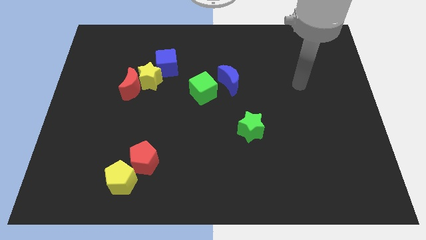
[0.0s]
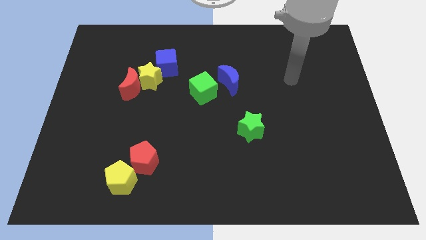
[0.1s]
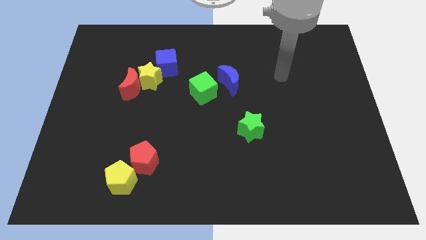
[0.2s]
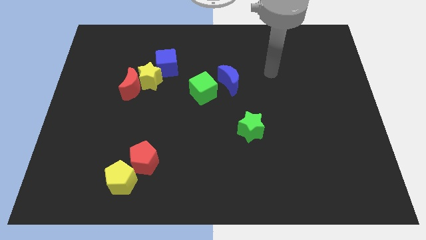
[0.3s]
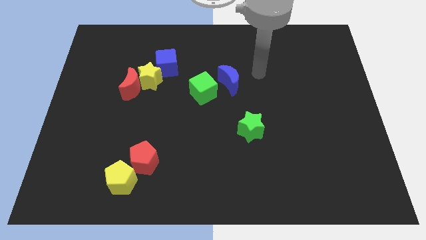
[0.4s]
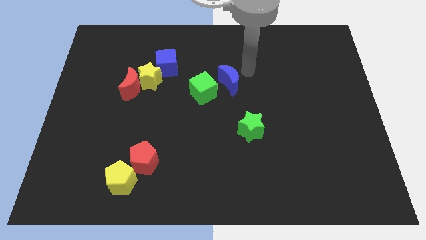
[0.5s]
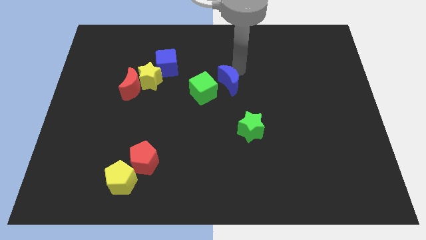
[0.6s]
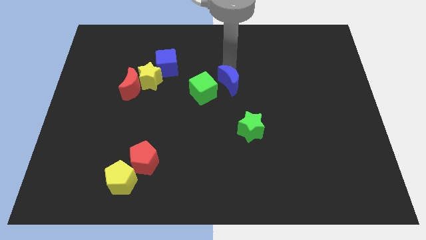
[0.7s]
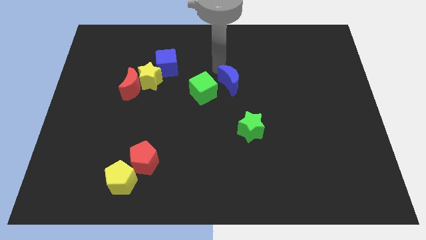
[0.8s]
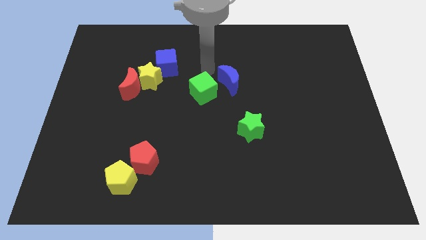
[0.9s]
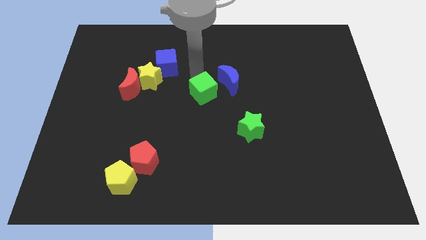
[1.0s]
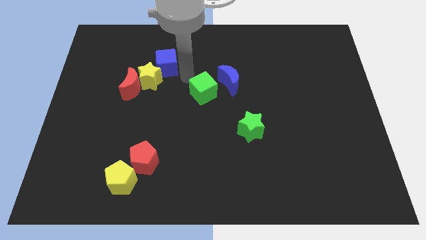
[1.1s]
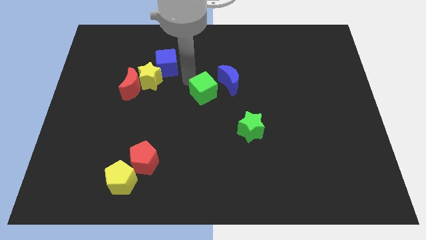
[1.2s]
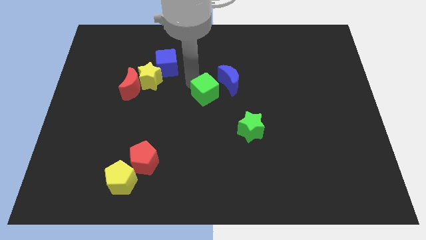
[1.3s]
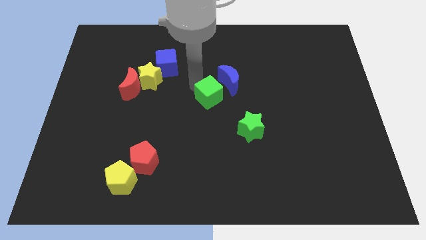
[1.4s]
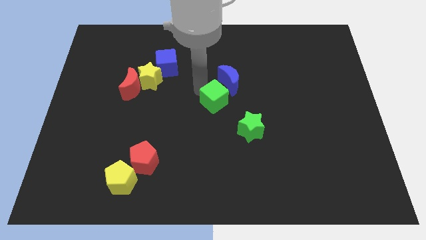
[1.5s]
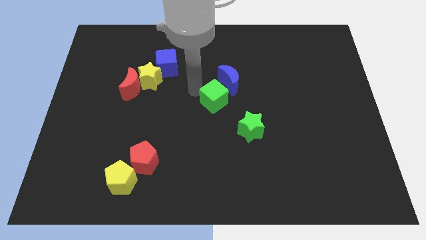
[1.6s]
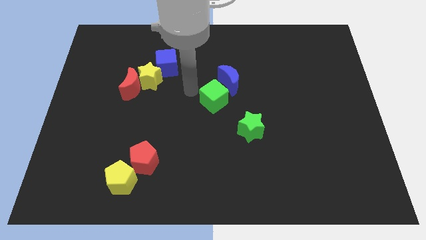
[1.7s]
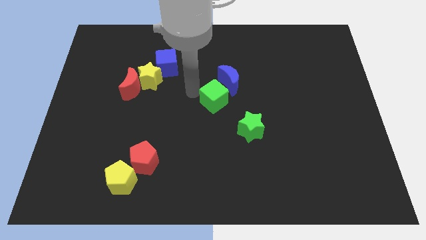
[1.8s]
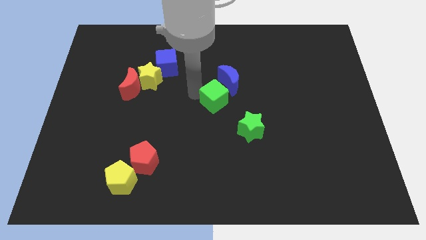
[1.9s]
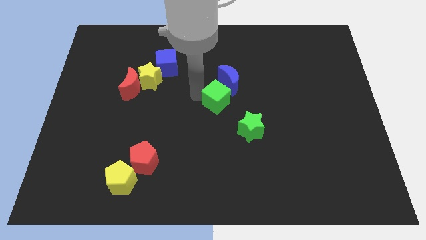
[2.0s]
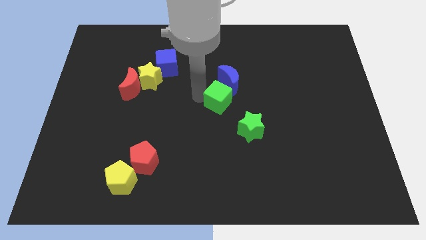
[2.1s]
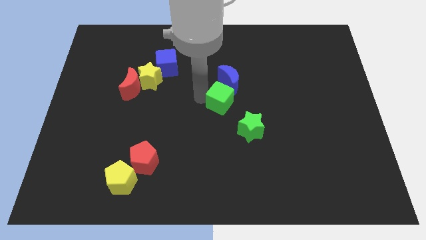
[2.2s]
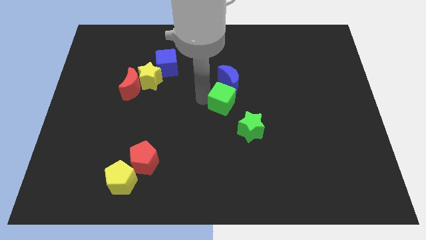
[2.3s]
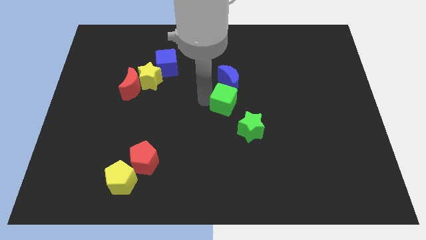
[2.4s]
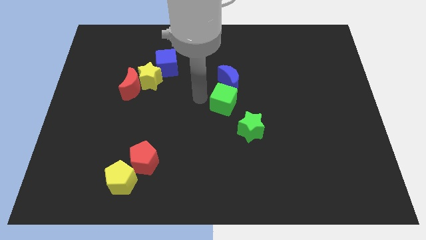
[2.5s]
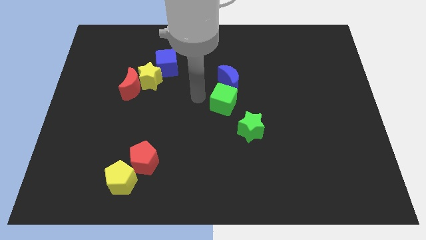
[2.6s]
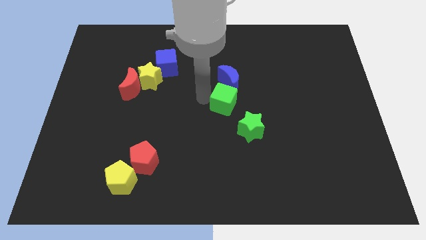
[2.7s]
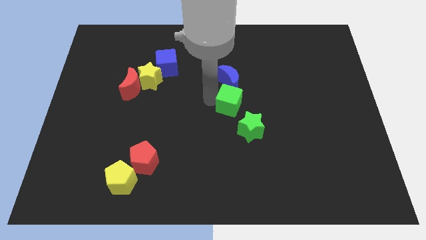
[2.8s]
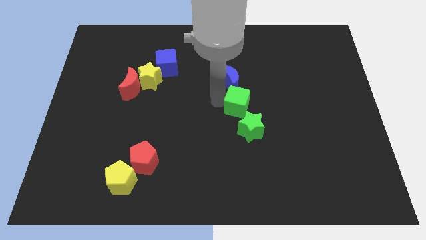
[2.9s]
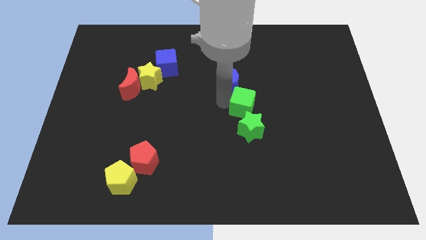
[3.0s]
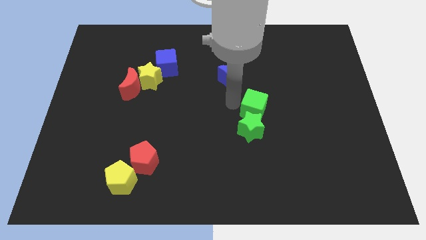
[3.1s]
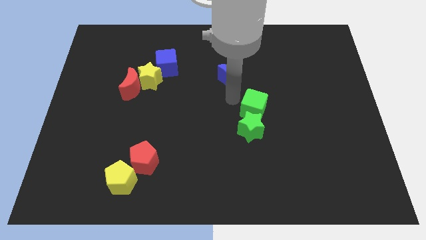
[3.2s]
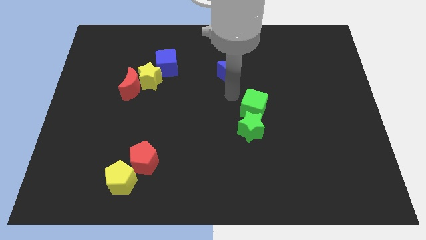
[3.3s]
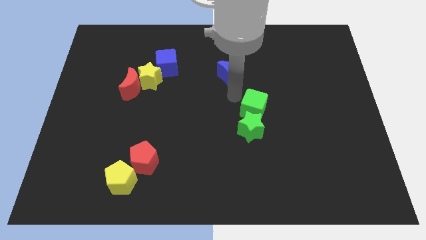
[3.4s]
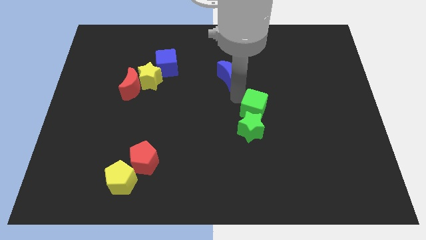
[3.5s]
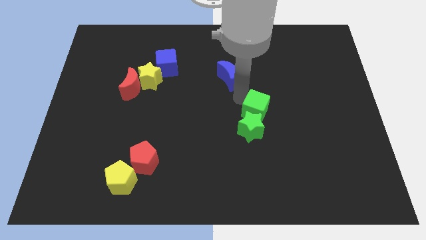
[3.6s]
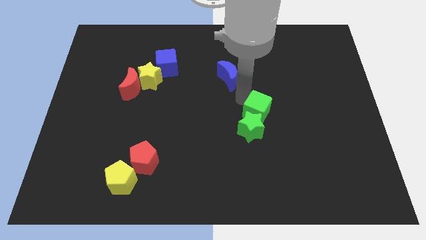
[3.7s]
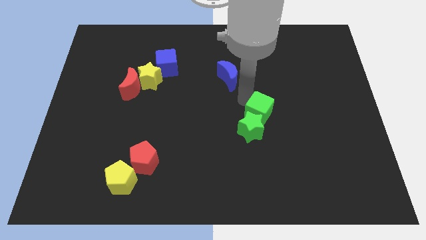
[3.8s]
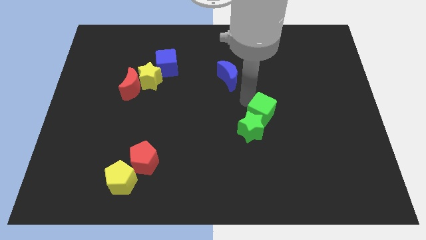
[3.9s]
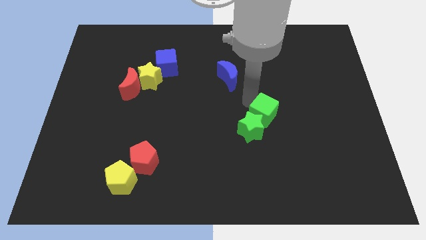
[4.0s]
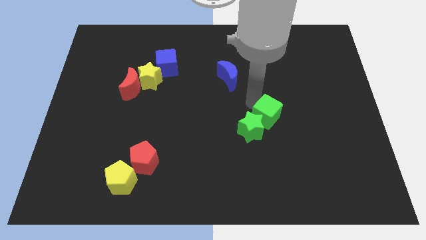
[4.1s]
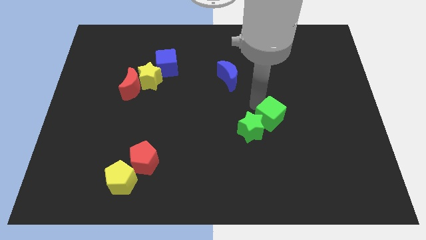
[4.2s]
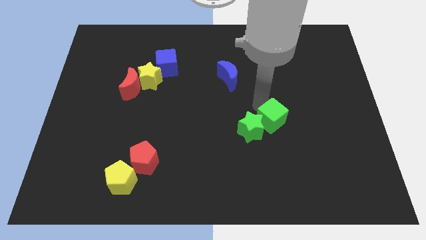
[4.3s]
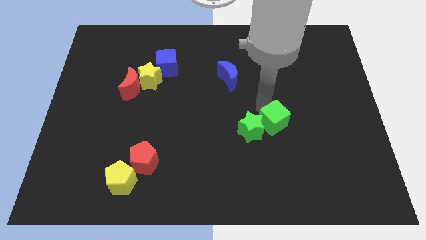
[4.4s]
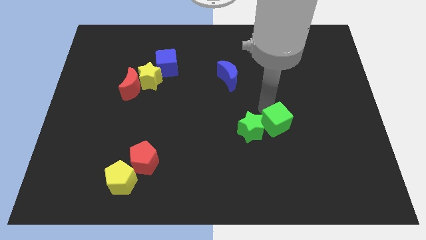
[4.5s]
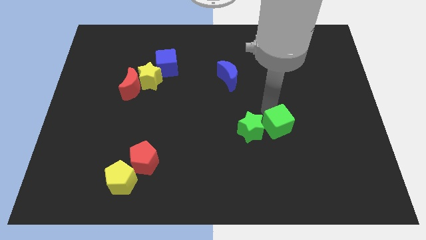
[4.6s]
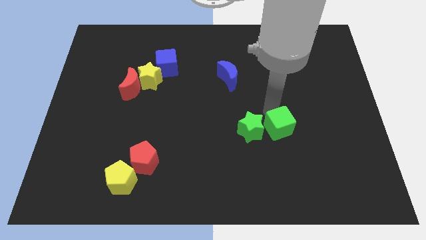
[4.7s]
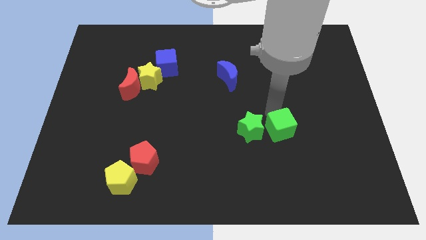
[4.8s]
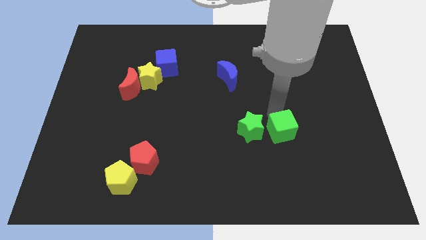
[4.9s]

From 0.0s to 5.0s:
move the green cube down and right diagonally

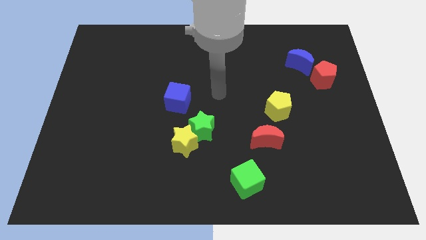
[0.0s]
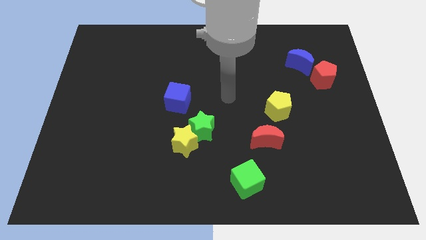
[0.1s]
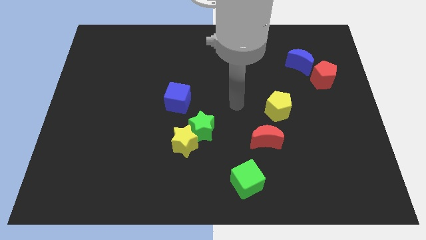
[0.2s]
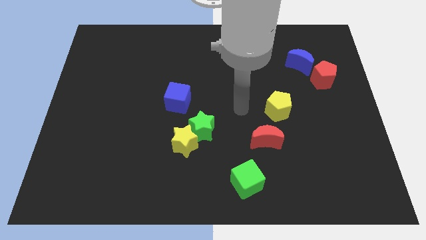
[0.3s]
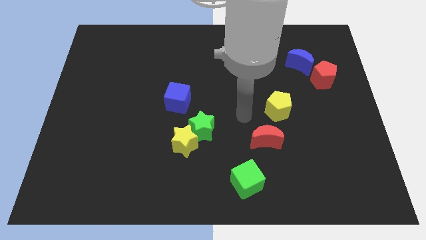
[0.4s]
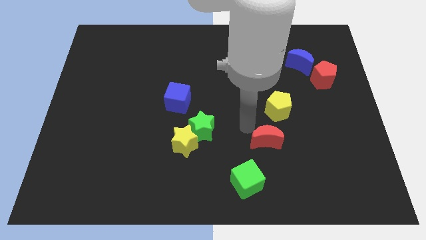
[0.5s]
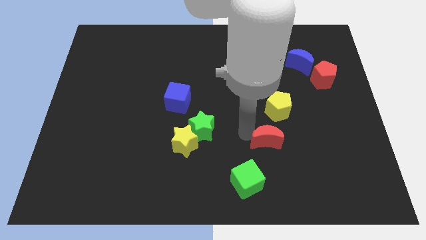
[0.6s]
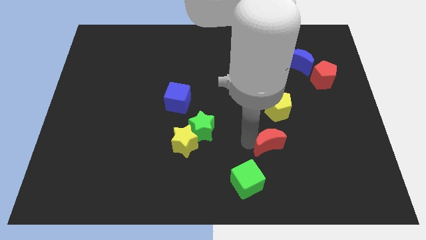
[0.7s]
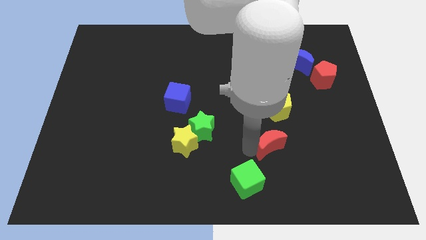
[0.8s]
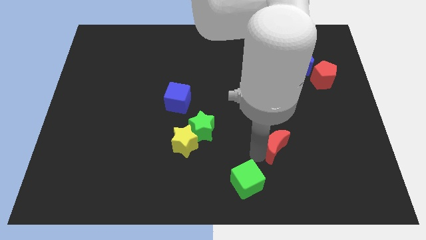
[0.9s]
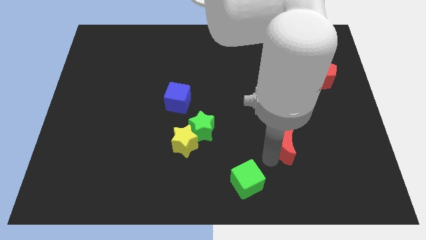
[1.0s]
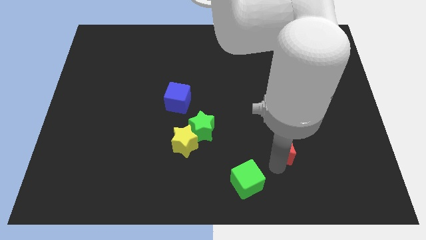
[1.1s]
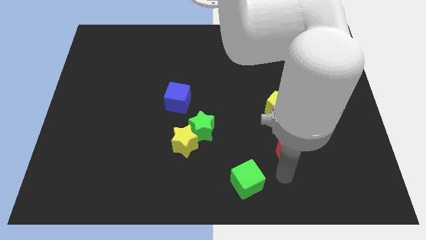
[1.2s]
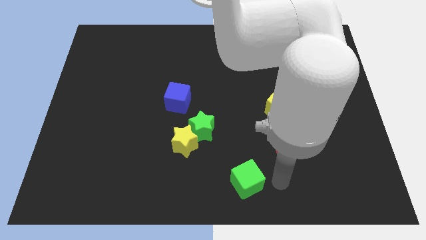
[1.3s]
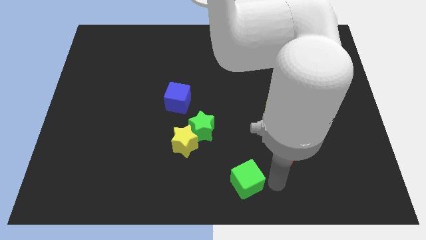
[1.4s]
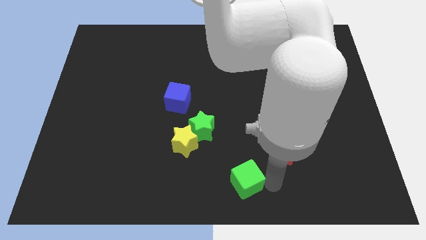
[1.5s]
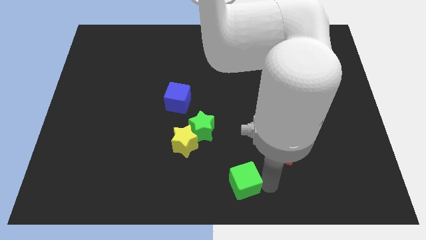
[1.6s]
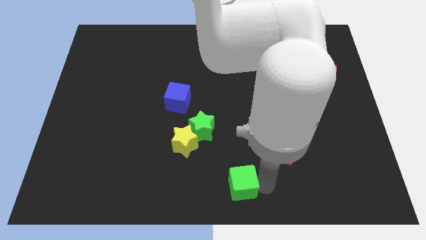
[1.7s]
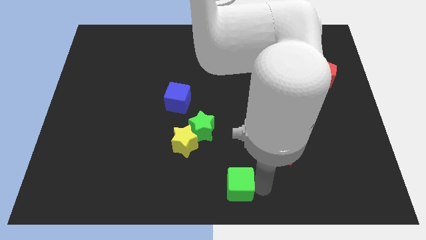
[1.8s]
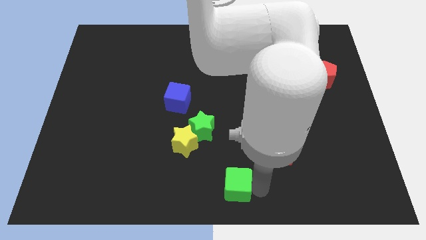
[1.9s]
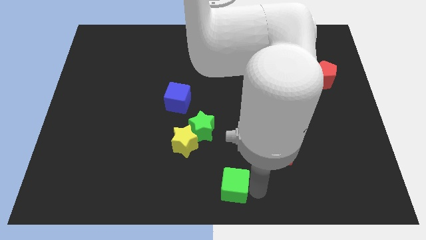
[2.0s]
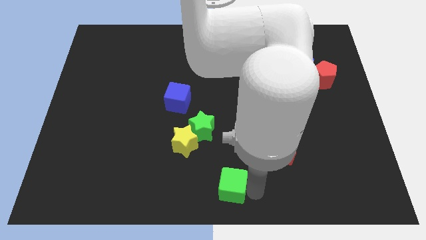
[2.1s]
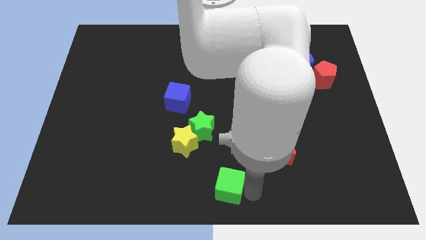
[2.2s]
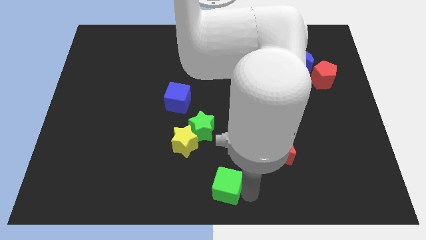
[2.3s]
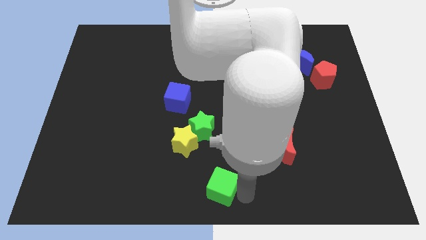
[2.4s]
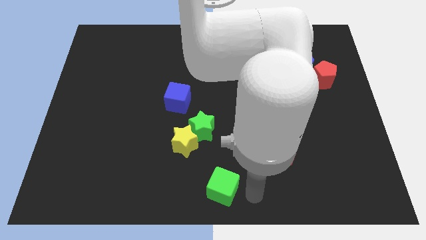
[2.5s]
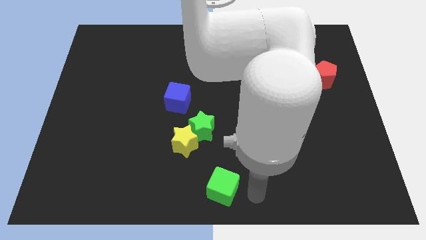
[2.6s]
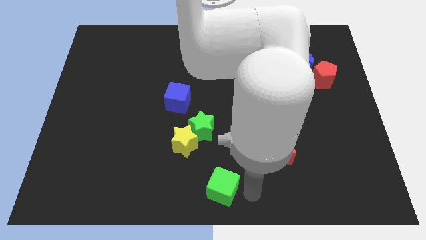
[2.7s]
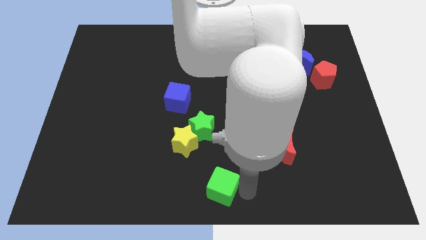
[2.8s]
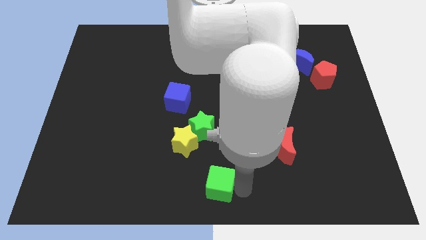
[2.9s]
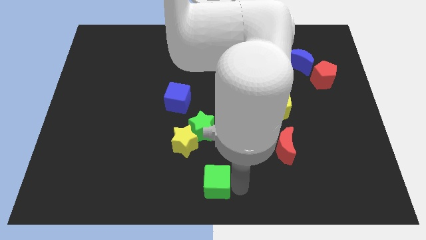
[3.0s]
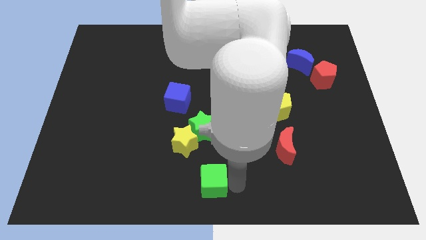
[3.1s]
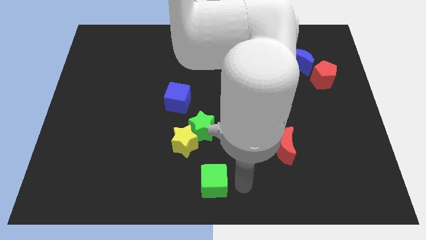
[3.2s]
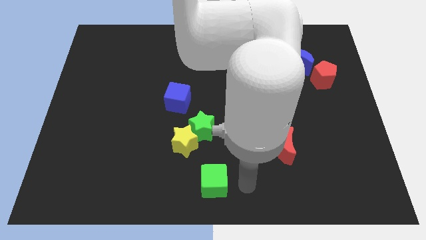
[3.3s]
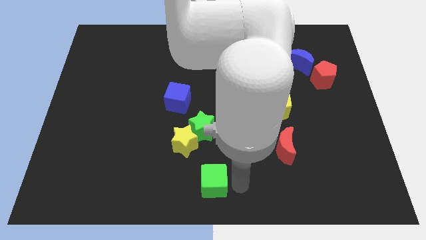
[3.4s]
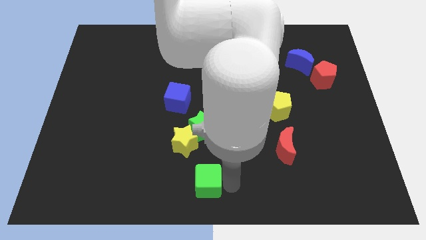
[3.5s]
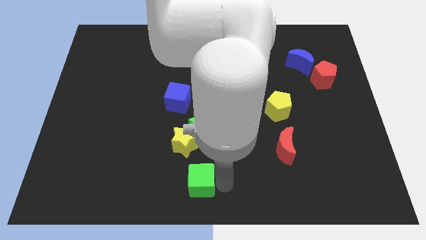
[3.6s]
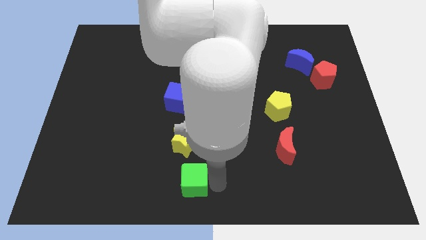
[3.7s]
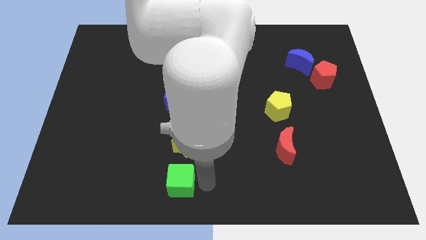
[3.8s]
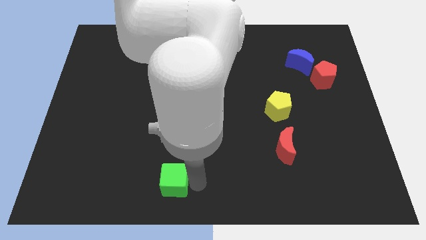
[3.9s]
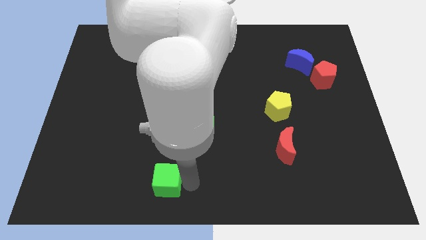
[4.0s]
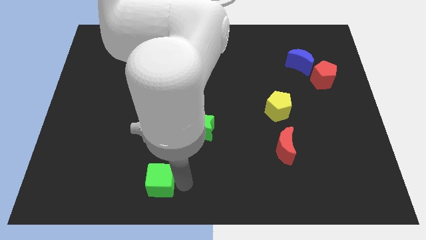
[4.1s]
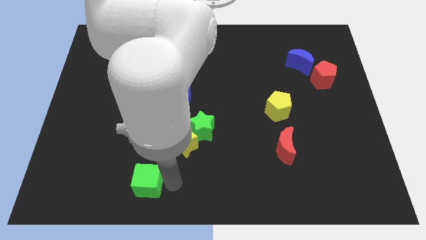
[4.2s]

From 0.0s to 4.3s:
slide the green cube left
